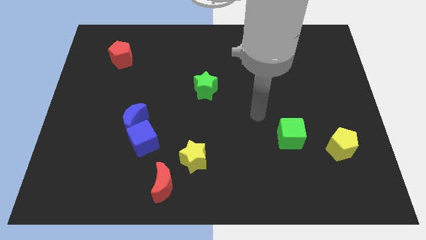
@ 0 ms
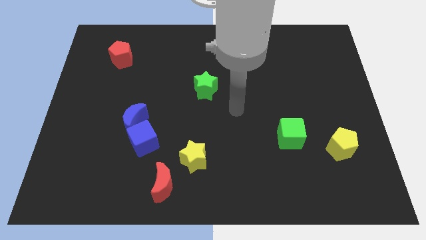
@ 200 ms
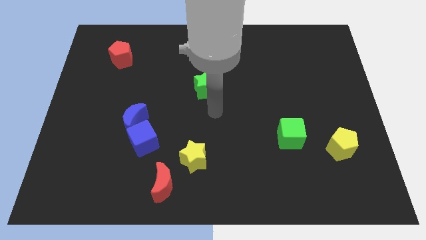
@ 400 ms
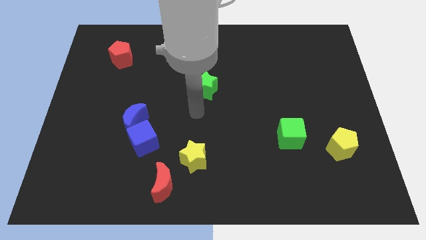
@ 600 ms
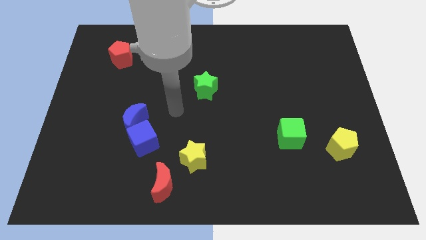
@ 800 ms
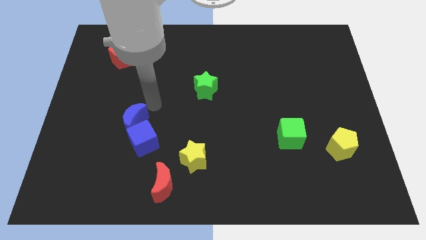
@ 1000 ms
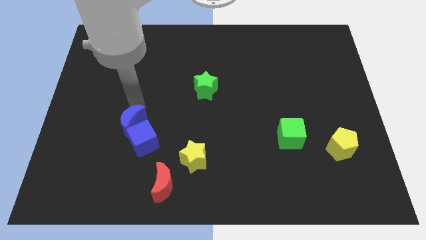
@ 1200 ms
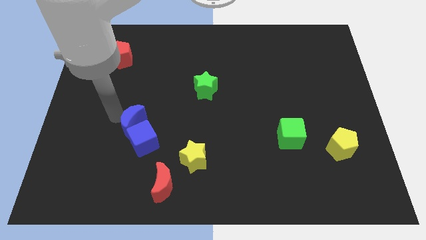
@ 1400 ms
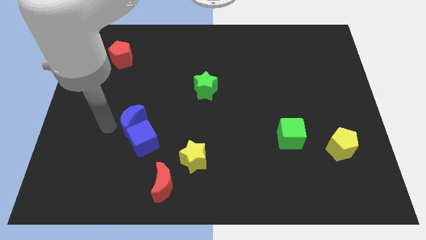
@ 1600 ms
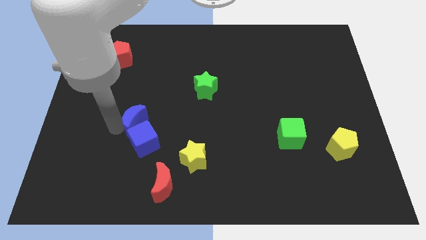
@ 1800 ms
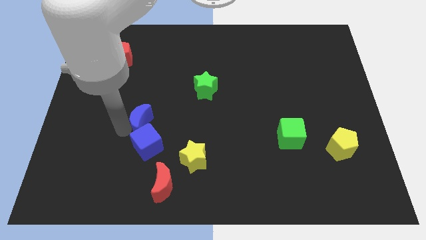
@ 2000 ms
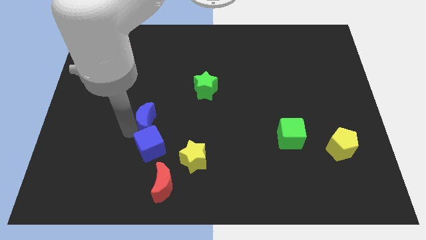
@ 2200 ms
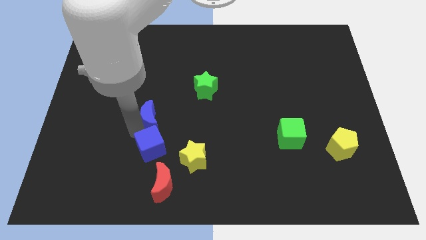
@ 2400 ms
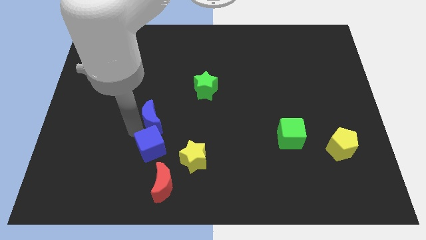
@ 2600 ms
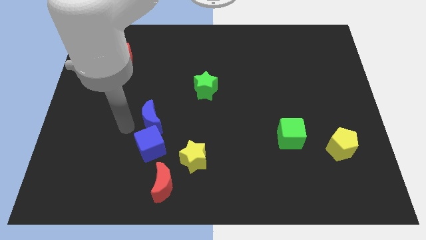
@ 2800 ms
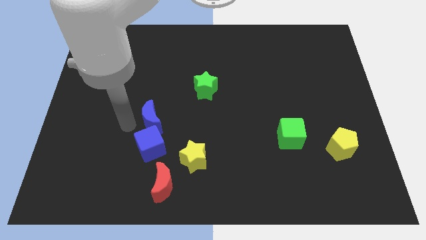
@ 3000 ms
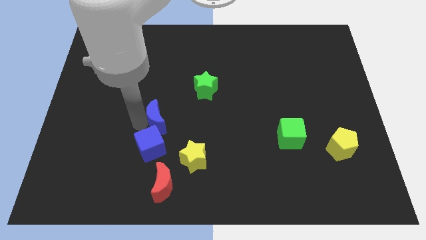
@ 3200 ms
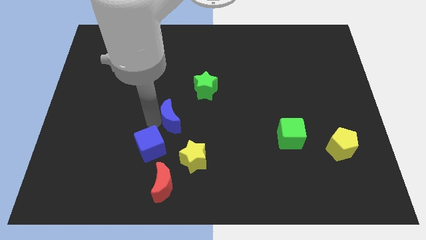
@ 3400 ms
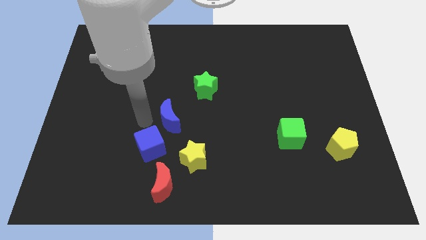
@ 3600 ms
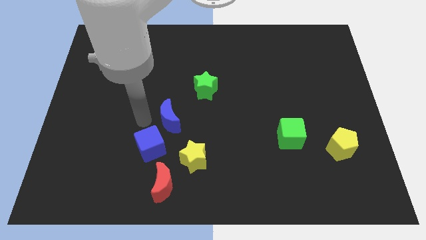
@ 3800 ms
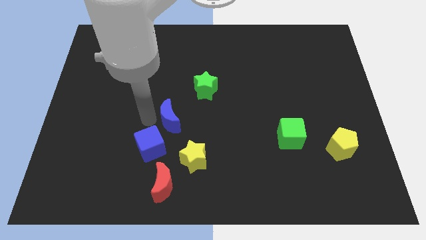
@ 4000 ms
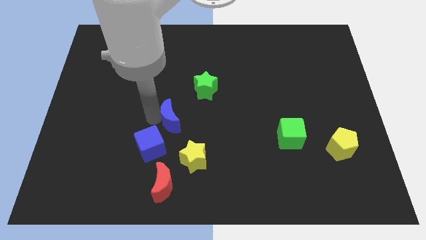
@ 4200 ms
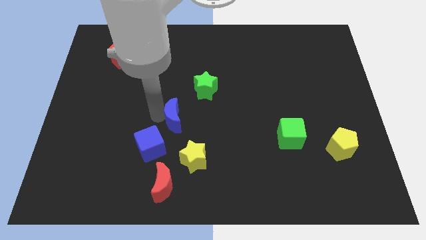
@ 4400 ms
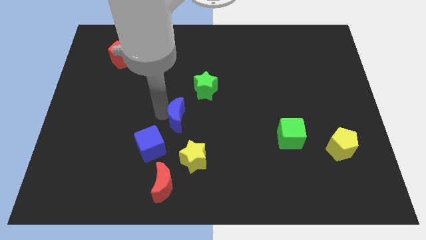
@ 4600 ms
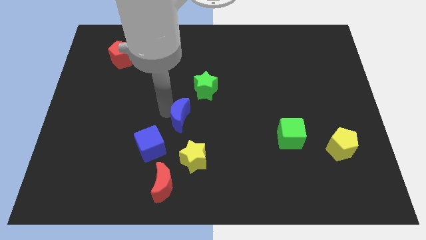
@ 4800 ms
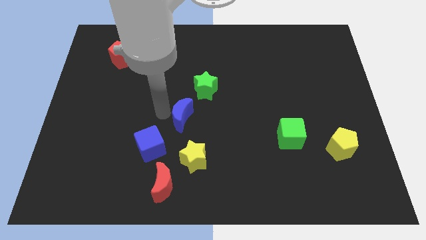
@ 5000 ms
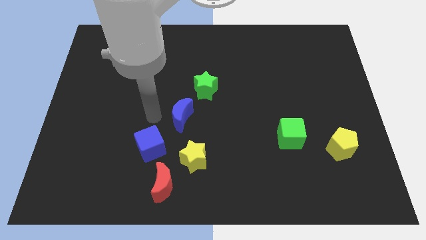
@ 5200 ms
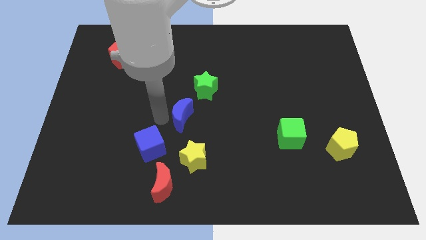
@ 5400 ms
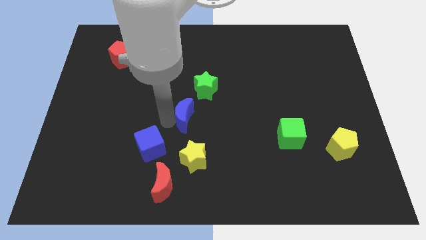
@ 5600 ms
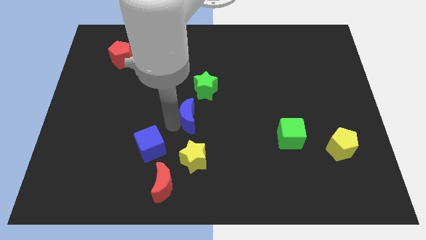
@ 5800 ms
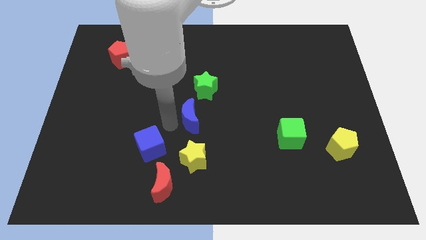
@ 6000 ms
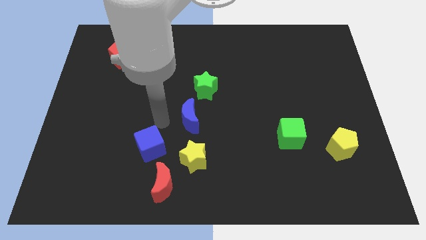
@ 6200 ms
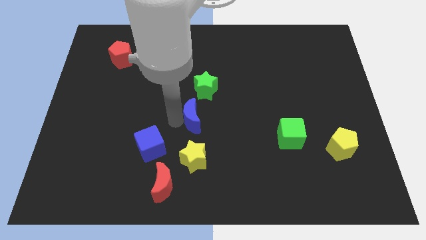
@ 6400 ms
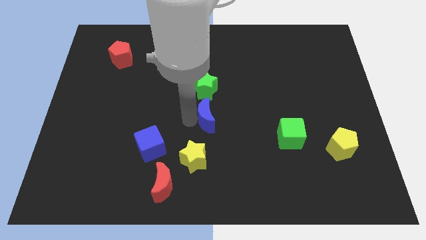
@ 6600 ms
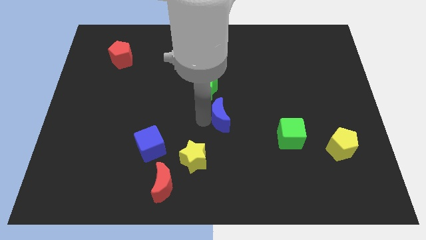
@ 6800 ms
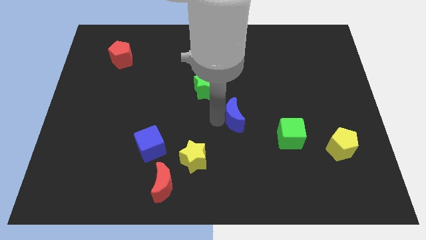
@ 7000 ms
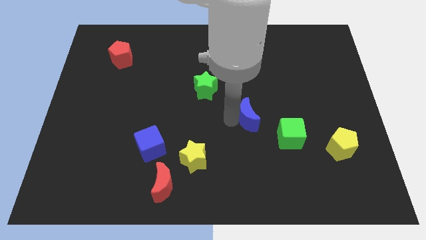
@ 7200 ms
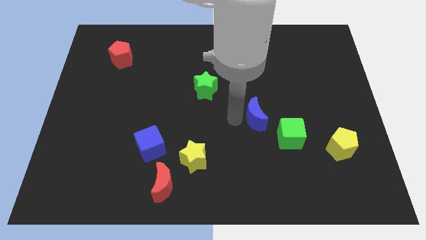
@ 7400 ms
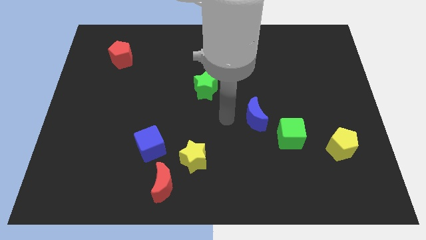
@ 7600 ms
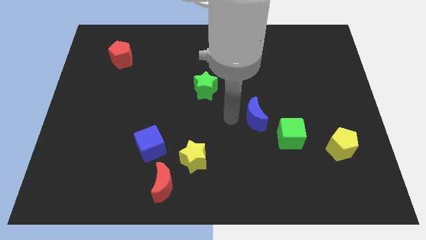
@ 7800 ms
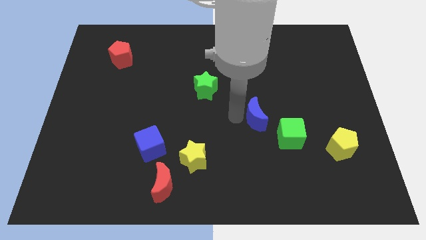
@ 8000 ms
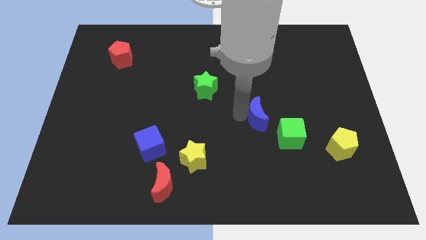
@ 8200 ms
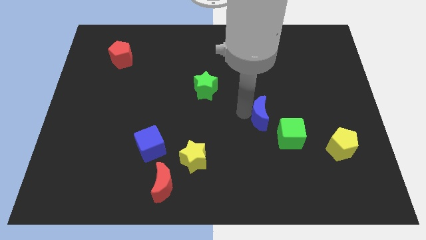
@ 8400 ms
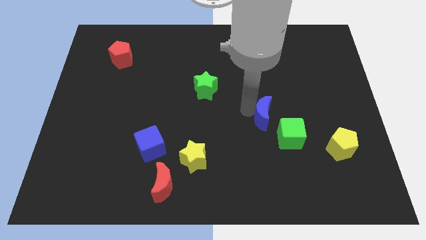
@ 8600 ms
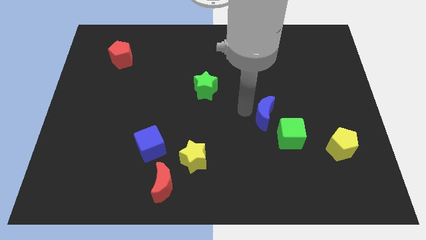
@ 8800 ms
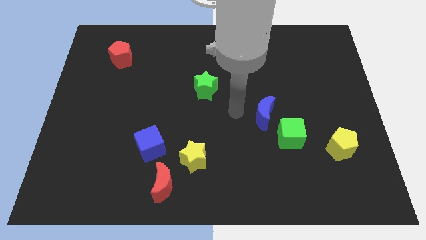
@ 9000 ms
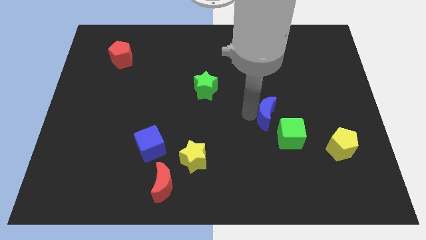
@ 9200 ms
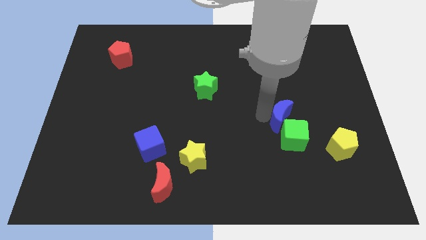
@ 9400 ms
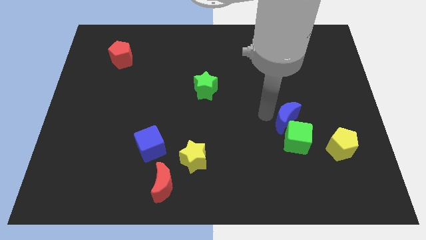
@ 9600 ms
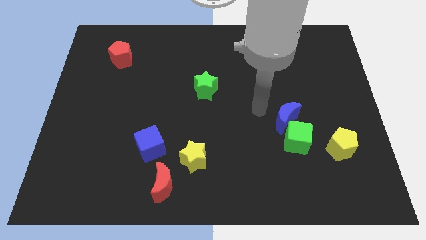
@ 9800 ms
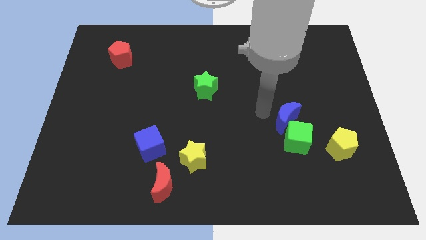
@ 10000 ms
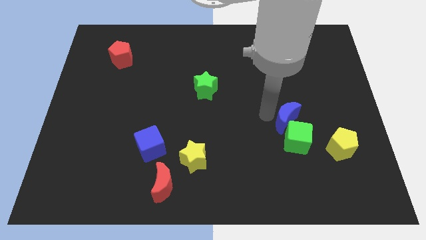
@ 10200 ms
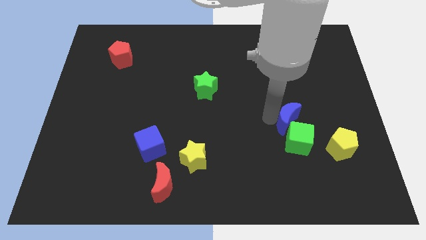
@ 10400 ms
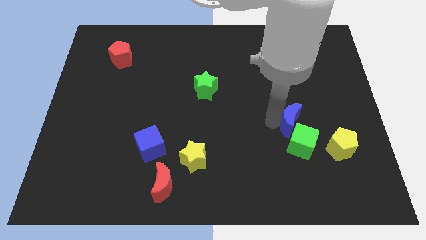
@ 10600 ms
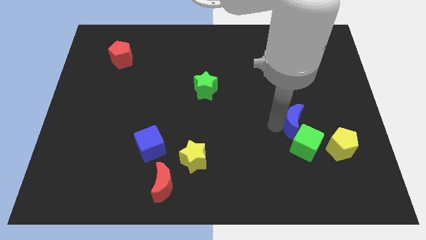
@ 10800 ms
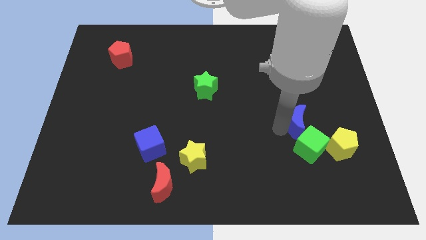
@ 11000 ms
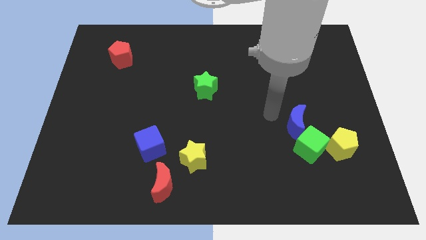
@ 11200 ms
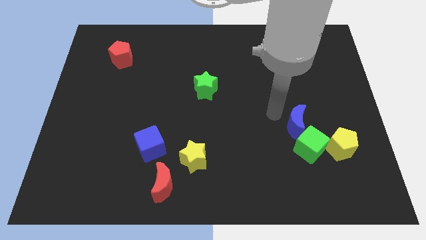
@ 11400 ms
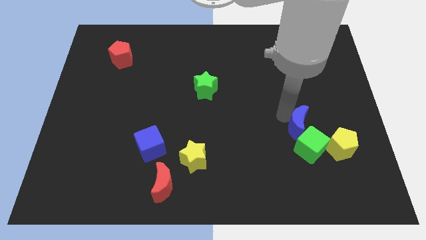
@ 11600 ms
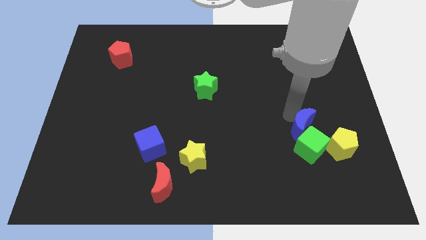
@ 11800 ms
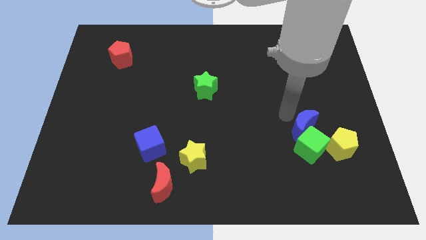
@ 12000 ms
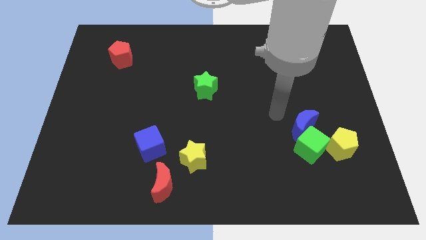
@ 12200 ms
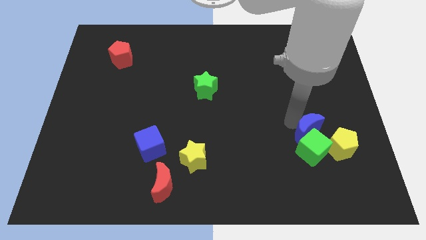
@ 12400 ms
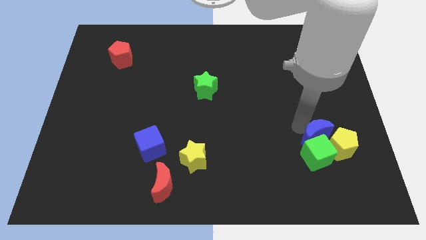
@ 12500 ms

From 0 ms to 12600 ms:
move the blue moon next to the yellow pentagon

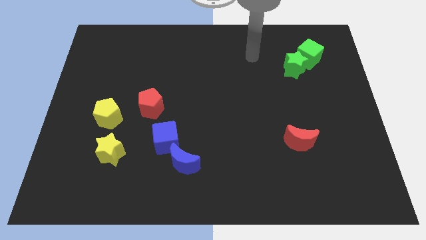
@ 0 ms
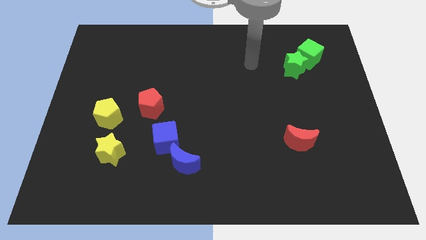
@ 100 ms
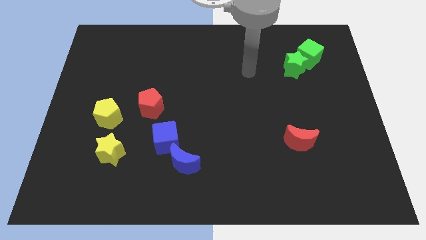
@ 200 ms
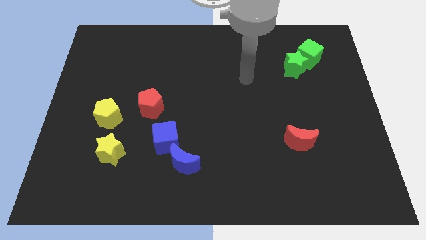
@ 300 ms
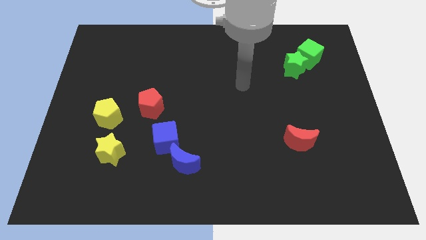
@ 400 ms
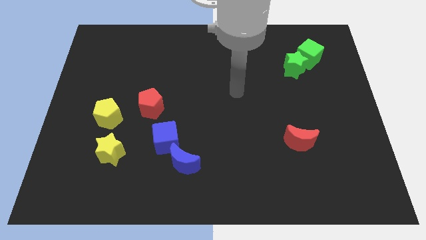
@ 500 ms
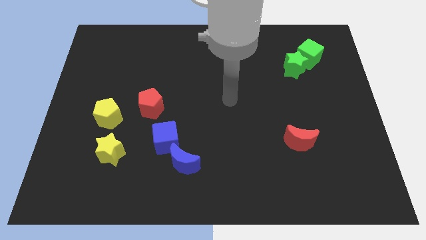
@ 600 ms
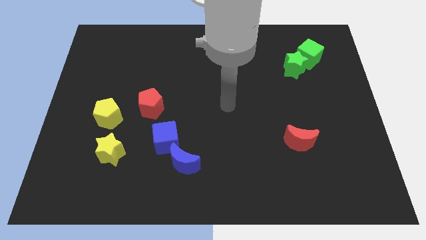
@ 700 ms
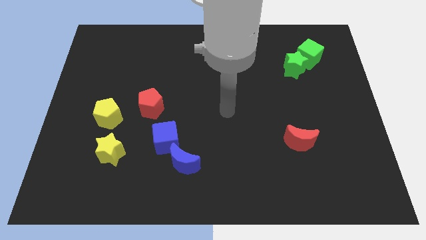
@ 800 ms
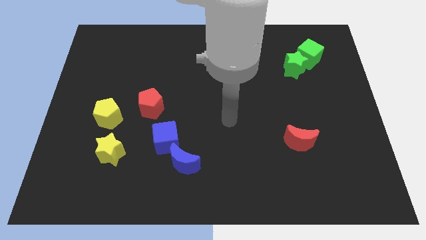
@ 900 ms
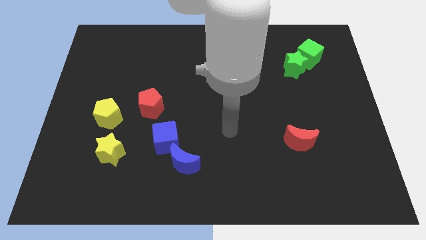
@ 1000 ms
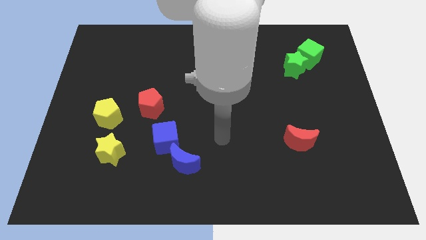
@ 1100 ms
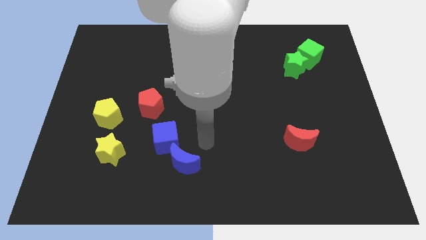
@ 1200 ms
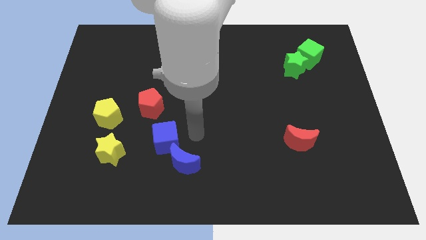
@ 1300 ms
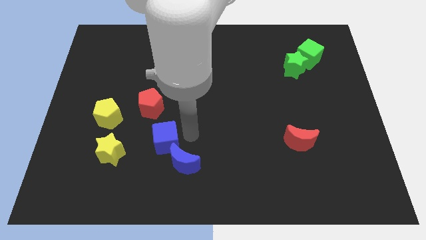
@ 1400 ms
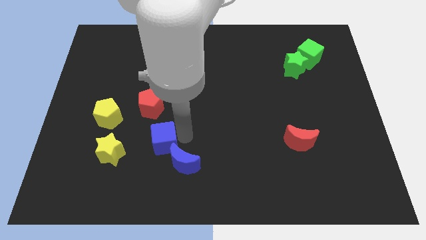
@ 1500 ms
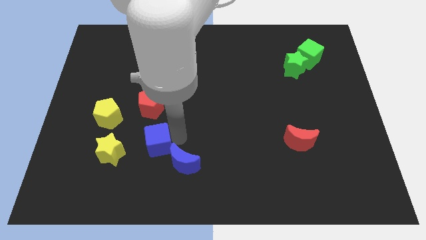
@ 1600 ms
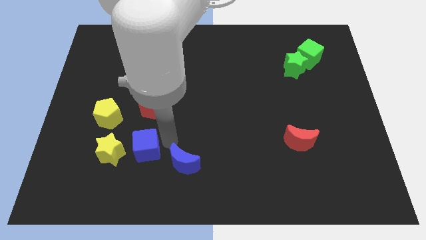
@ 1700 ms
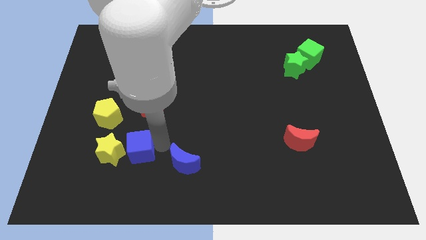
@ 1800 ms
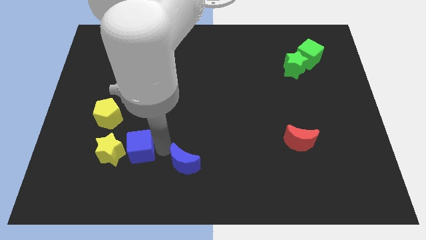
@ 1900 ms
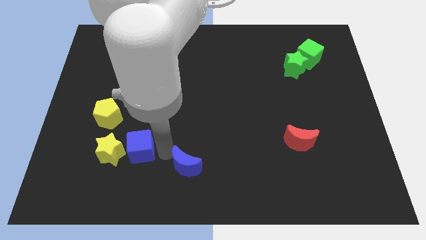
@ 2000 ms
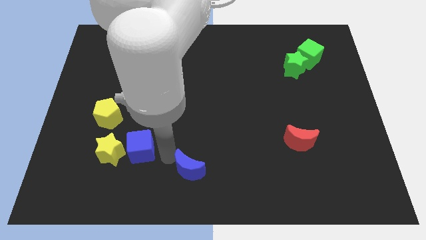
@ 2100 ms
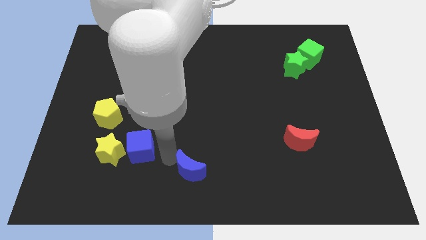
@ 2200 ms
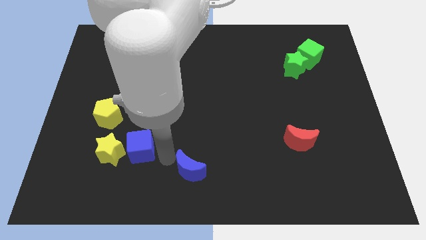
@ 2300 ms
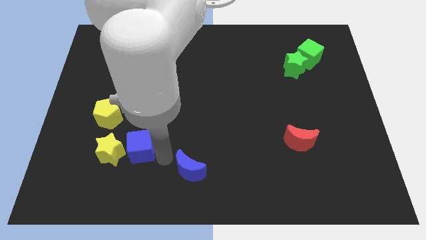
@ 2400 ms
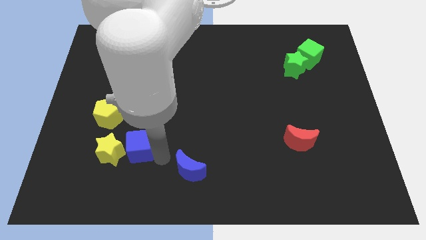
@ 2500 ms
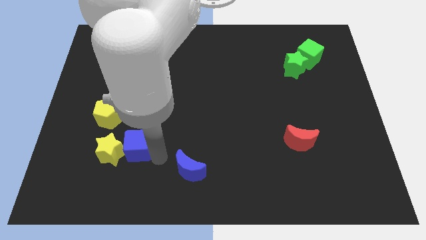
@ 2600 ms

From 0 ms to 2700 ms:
slide the blue cube towards the yellow star
